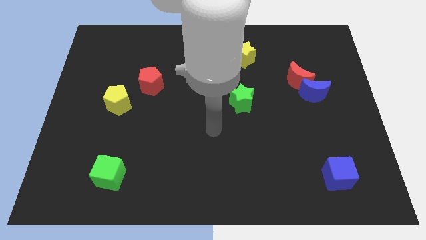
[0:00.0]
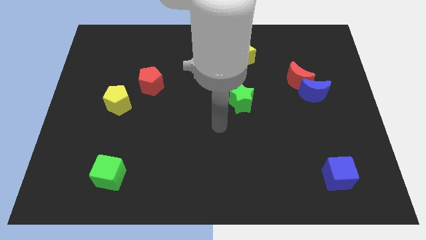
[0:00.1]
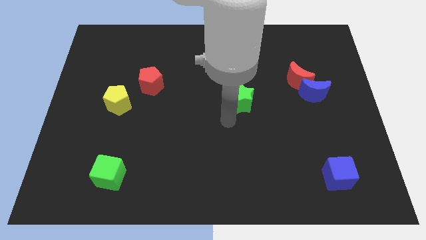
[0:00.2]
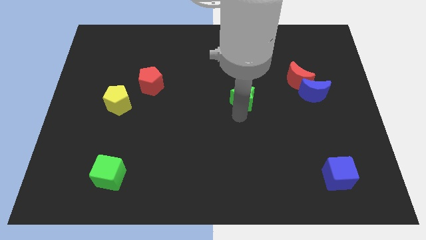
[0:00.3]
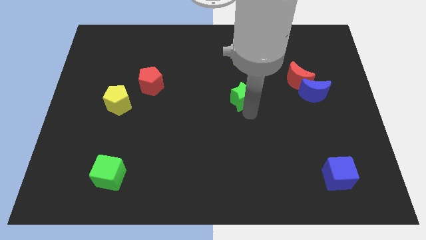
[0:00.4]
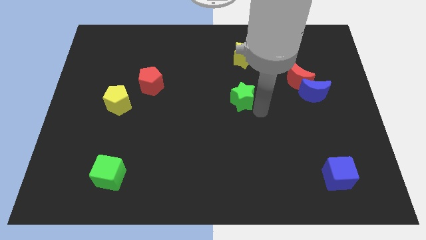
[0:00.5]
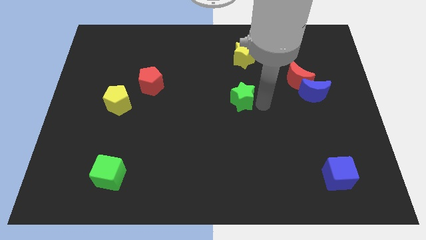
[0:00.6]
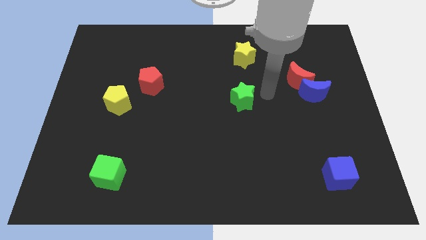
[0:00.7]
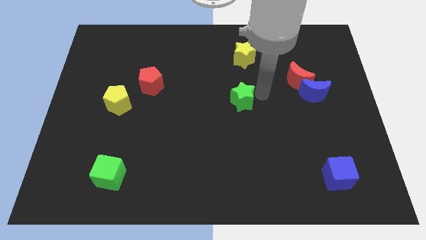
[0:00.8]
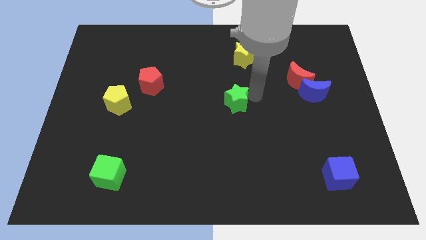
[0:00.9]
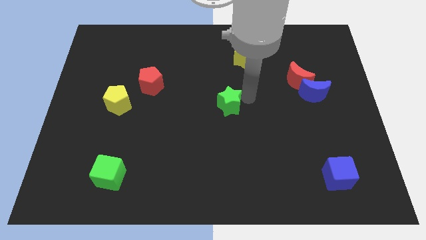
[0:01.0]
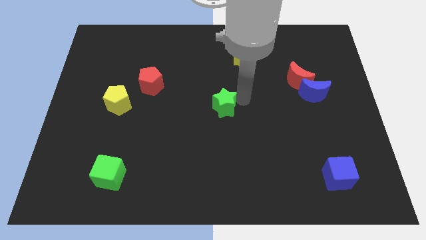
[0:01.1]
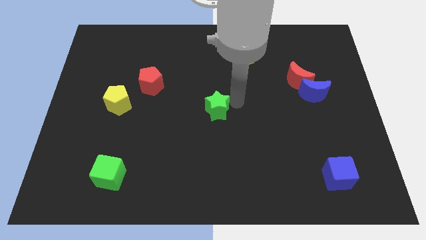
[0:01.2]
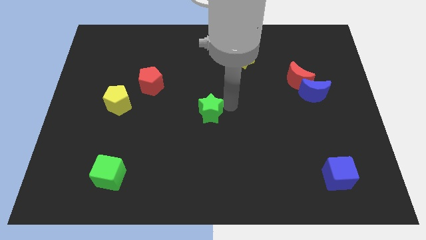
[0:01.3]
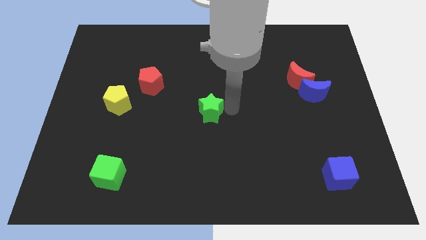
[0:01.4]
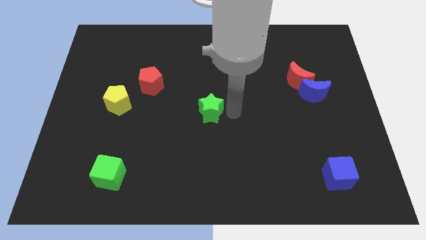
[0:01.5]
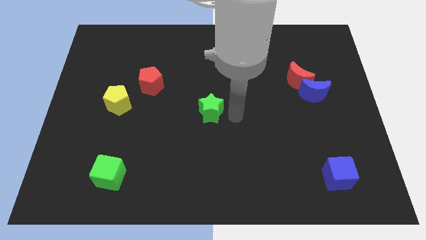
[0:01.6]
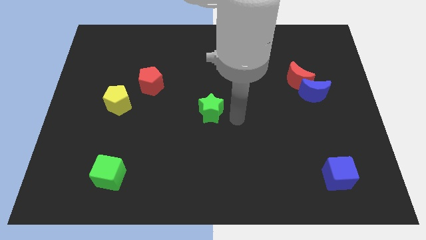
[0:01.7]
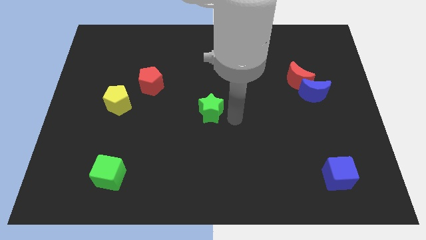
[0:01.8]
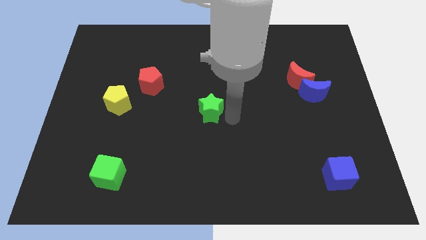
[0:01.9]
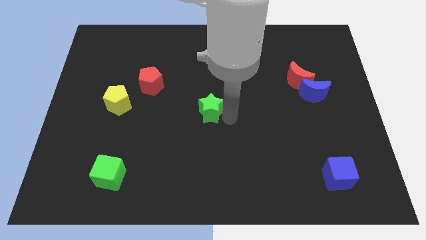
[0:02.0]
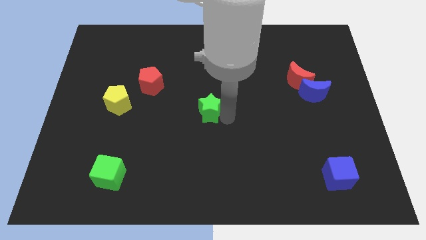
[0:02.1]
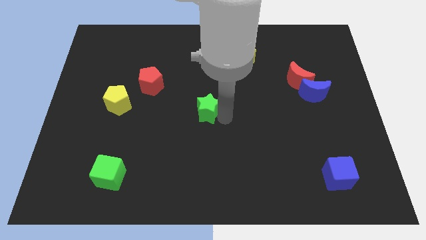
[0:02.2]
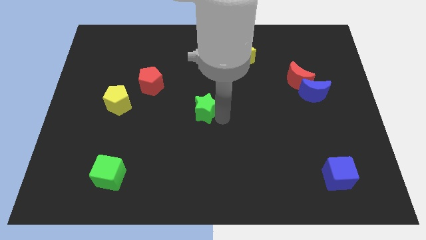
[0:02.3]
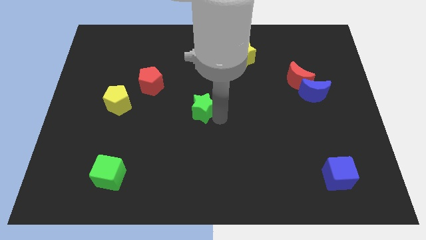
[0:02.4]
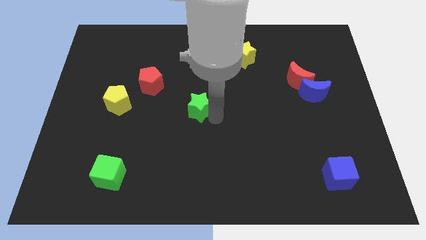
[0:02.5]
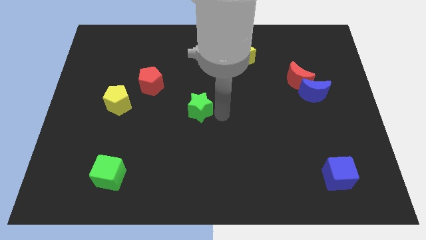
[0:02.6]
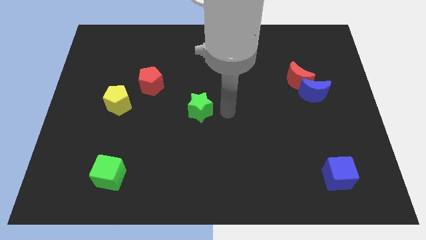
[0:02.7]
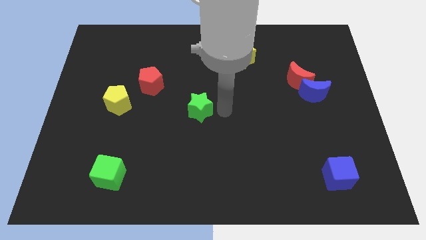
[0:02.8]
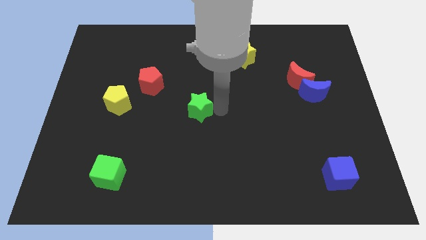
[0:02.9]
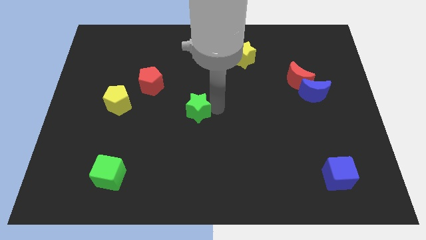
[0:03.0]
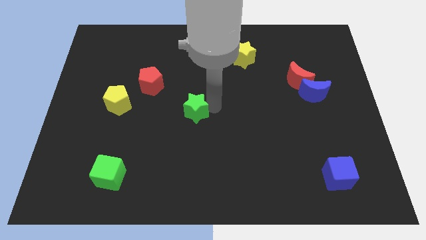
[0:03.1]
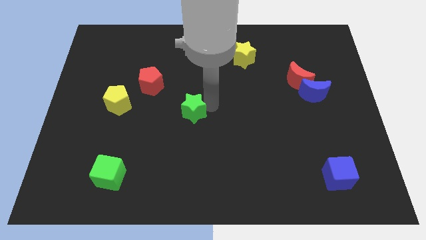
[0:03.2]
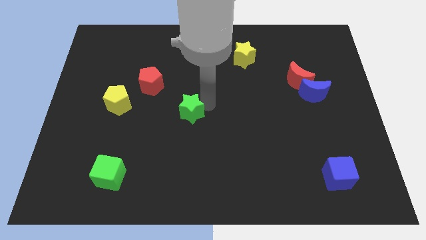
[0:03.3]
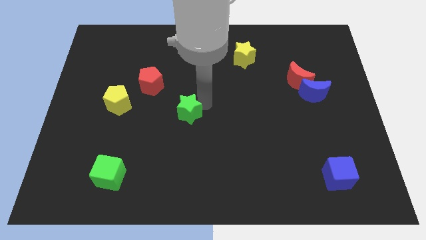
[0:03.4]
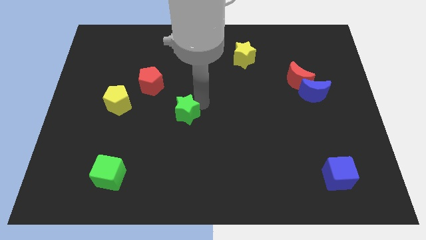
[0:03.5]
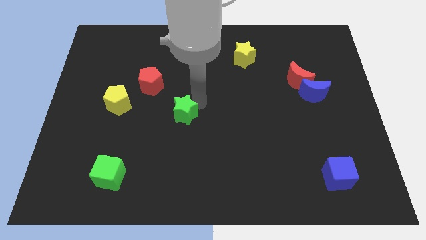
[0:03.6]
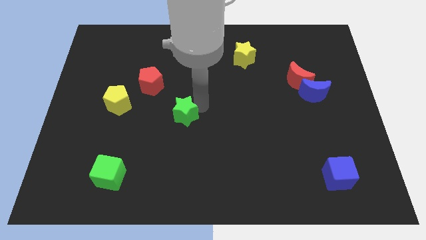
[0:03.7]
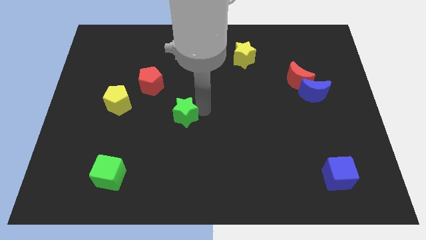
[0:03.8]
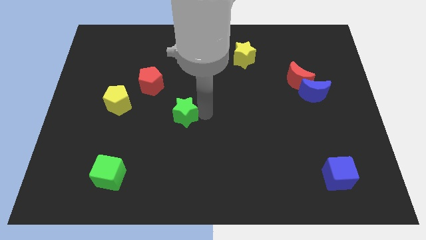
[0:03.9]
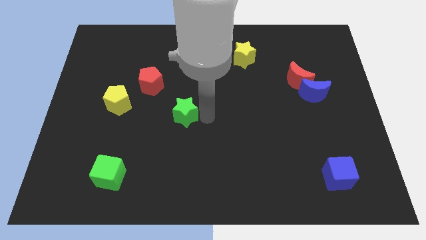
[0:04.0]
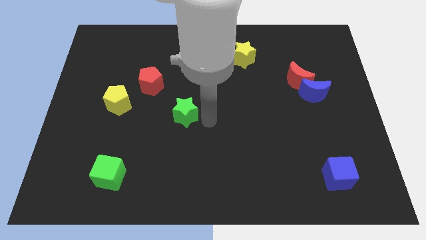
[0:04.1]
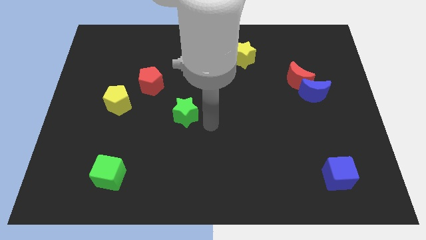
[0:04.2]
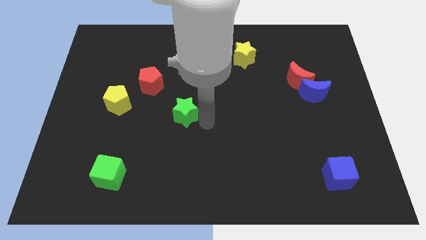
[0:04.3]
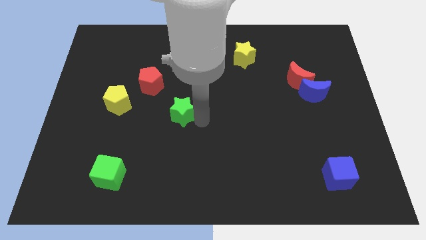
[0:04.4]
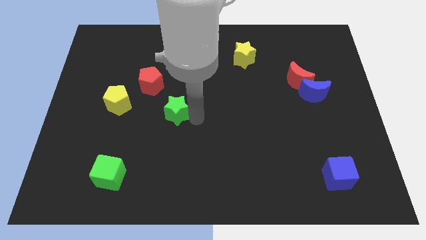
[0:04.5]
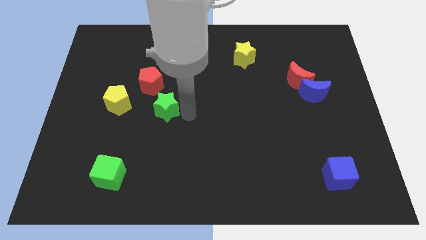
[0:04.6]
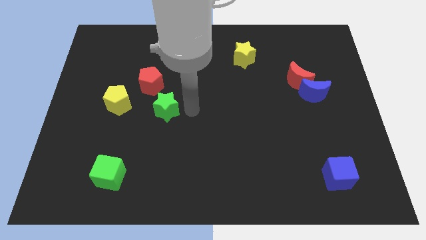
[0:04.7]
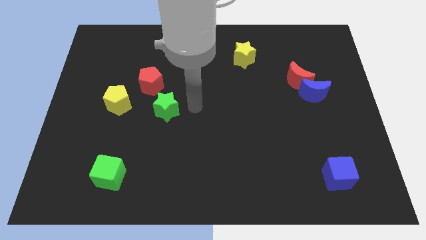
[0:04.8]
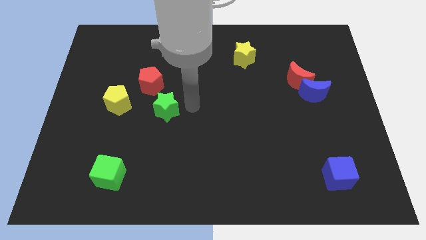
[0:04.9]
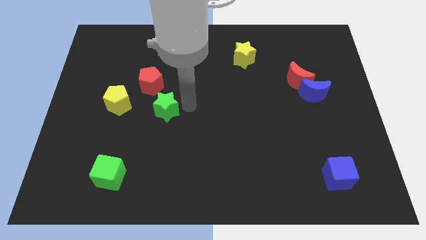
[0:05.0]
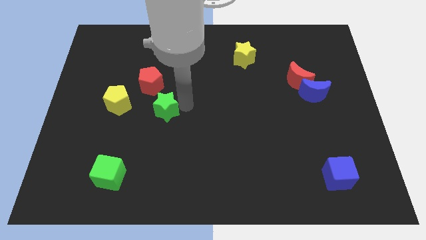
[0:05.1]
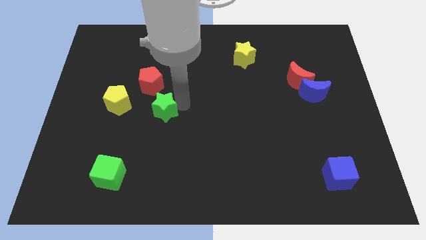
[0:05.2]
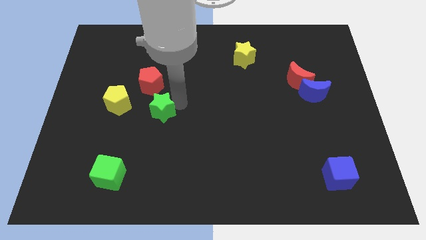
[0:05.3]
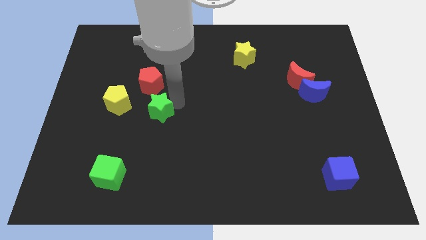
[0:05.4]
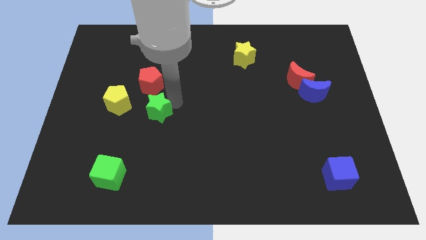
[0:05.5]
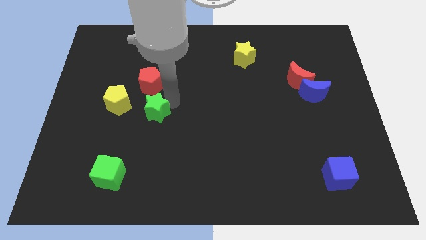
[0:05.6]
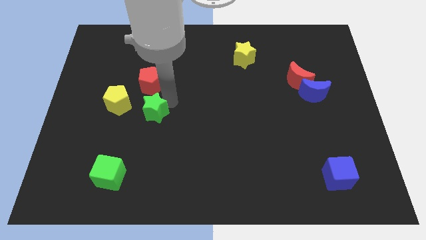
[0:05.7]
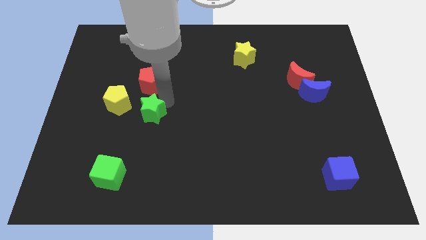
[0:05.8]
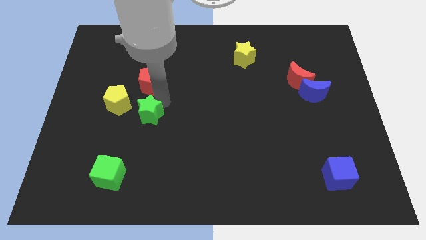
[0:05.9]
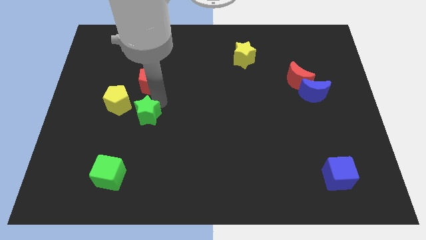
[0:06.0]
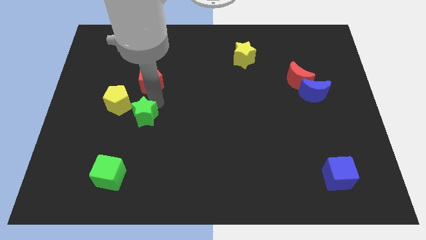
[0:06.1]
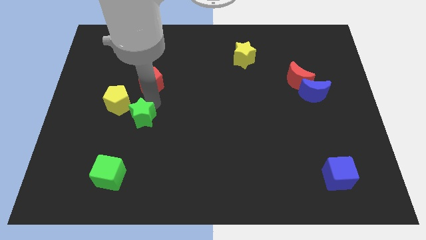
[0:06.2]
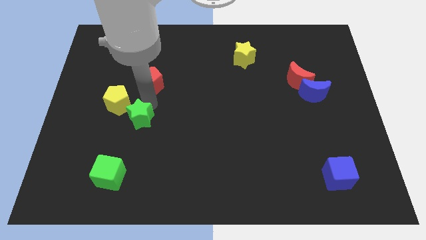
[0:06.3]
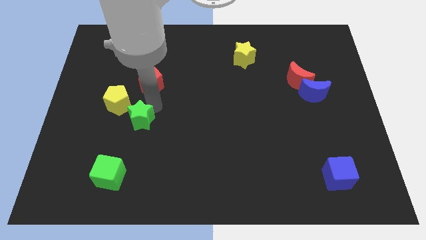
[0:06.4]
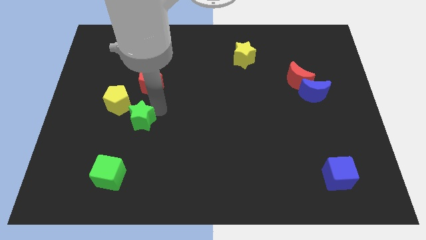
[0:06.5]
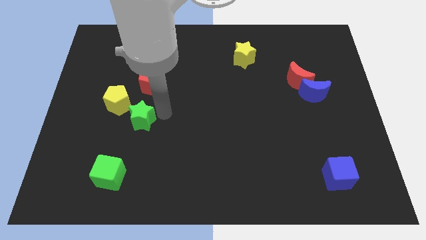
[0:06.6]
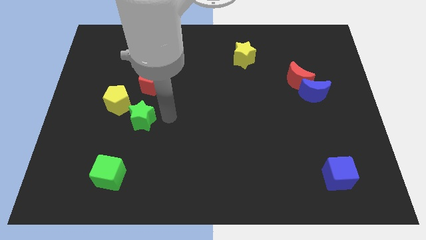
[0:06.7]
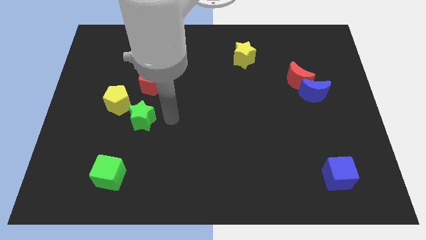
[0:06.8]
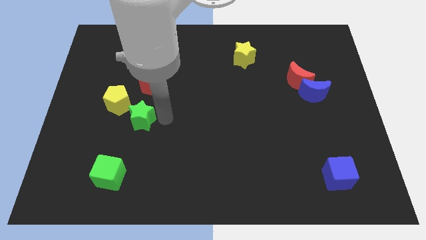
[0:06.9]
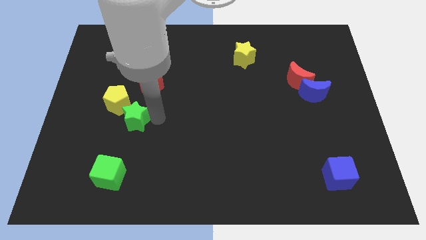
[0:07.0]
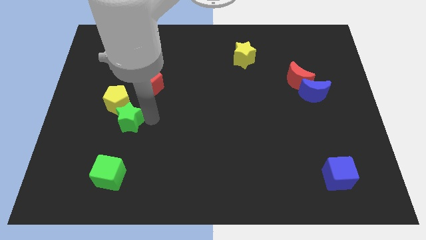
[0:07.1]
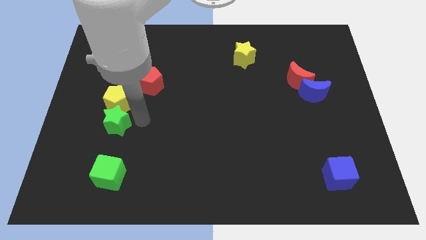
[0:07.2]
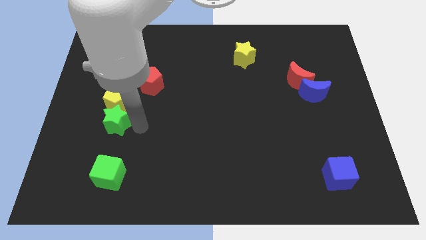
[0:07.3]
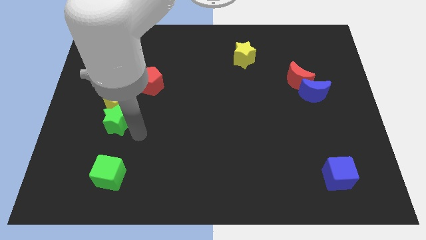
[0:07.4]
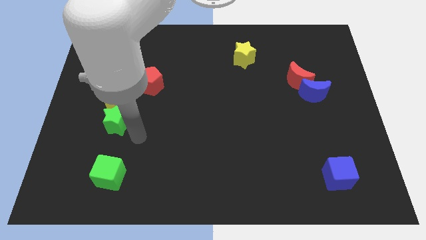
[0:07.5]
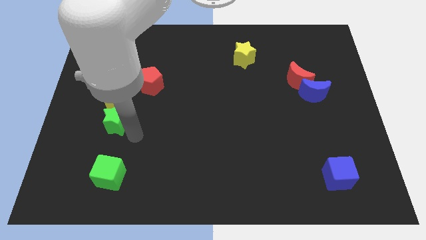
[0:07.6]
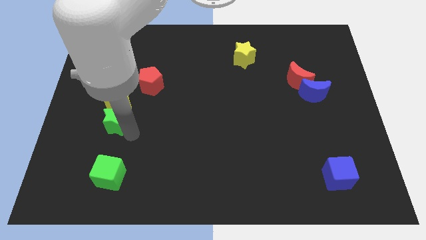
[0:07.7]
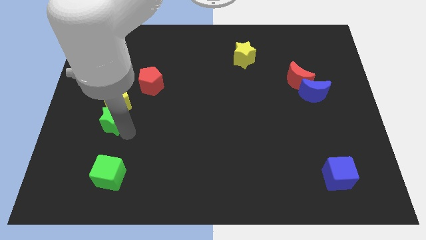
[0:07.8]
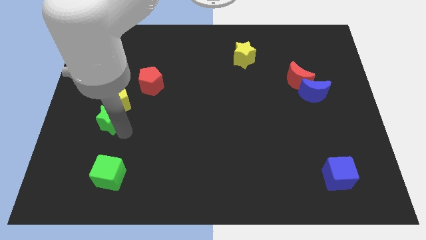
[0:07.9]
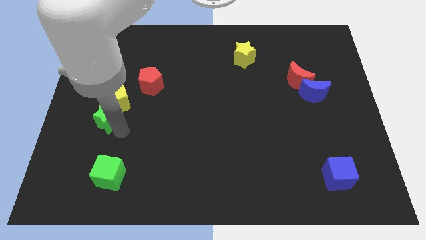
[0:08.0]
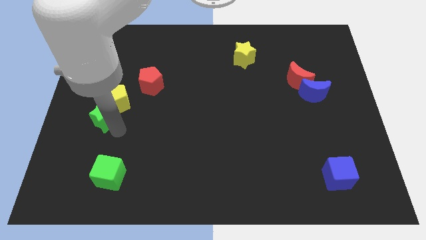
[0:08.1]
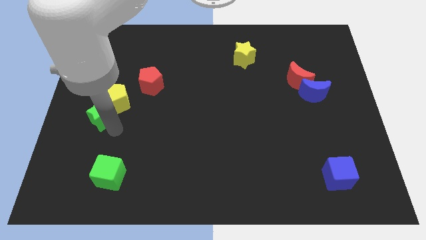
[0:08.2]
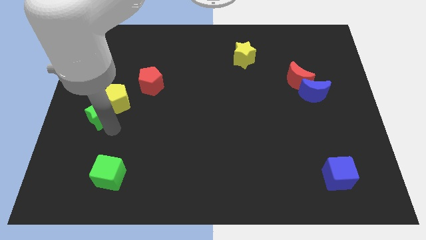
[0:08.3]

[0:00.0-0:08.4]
push the green star to the left side
